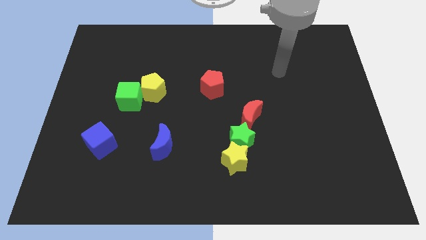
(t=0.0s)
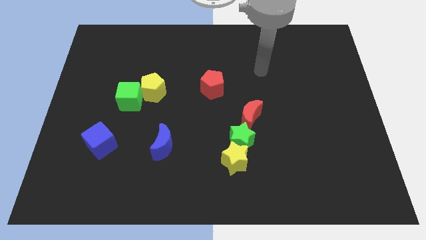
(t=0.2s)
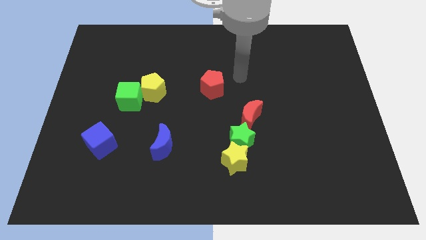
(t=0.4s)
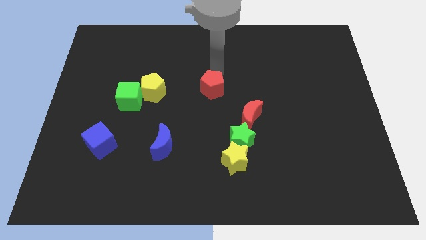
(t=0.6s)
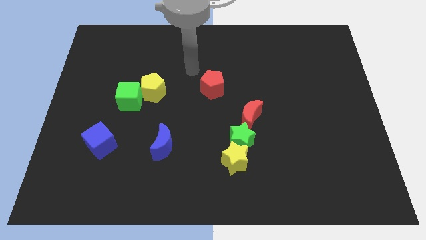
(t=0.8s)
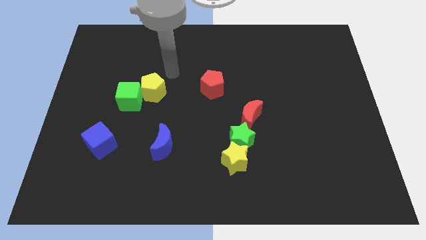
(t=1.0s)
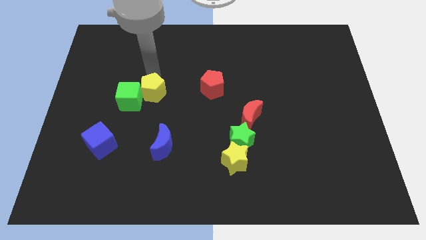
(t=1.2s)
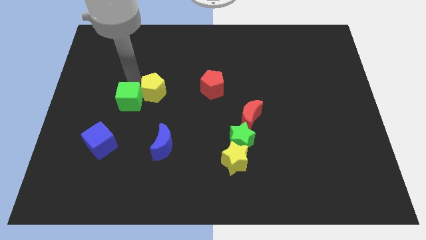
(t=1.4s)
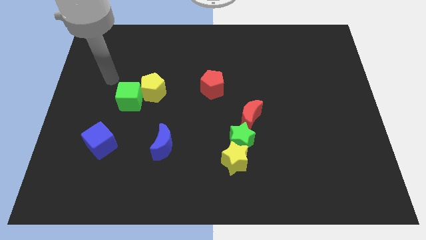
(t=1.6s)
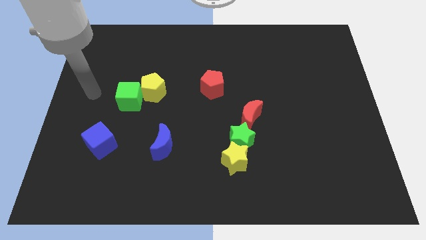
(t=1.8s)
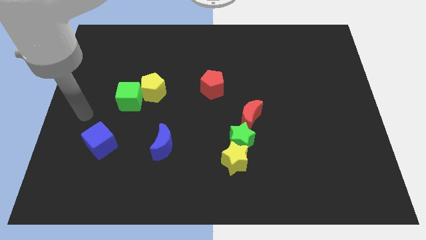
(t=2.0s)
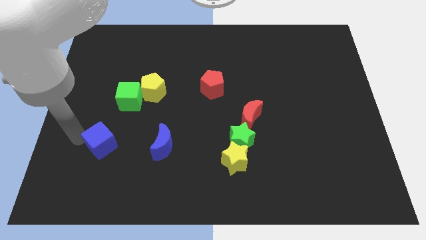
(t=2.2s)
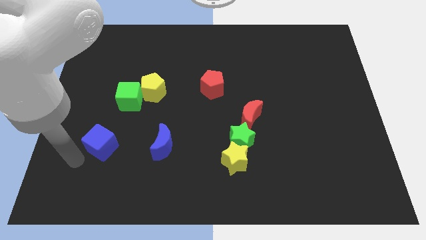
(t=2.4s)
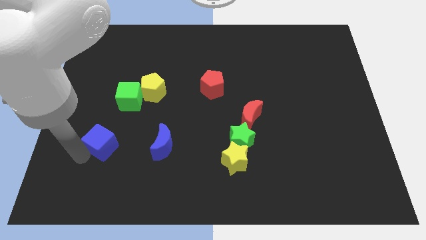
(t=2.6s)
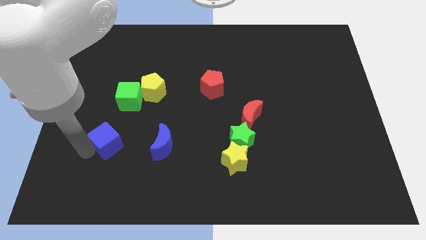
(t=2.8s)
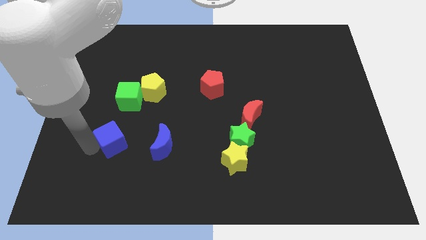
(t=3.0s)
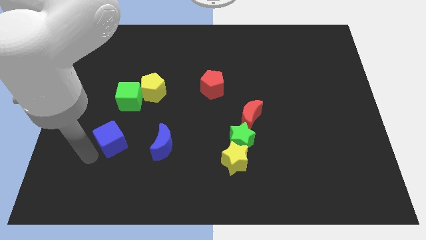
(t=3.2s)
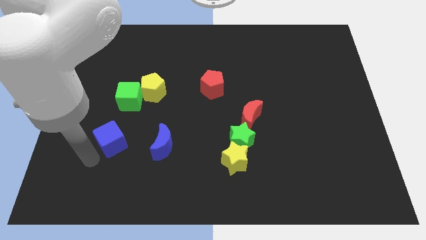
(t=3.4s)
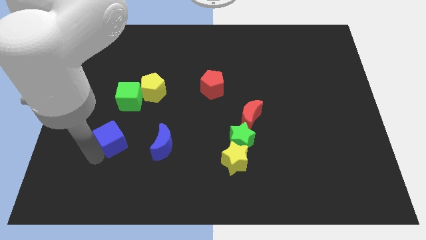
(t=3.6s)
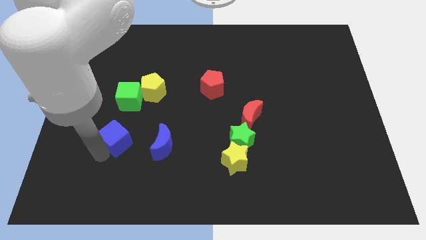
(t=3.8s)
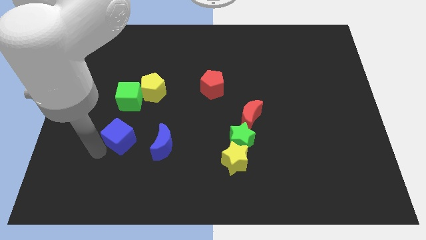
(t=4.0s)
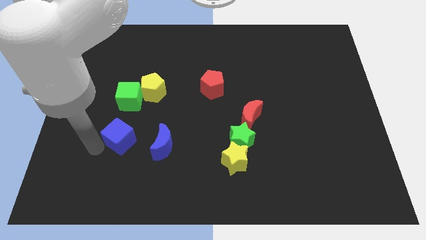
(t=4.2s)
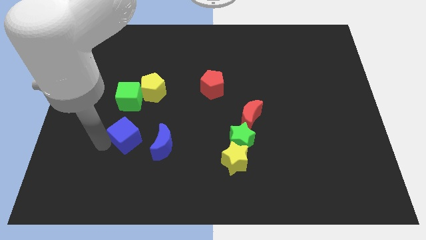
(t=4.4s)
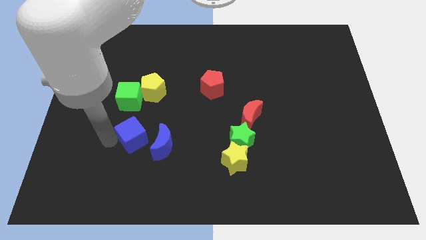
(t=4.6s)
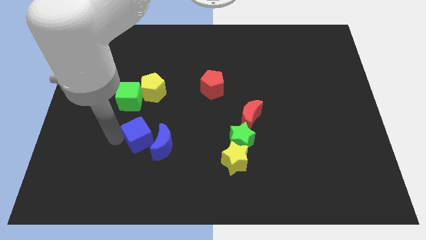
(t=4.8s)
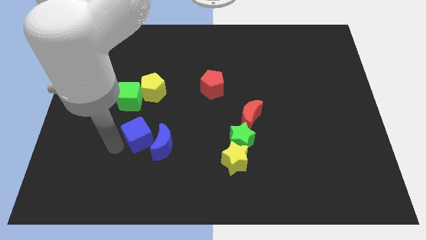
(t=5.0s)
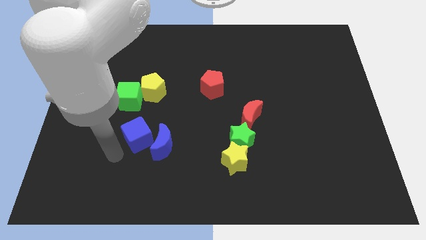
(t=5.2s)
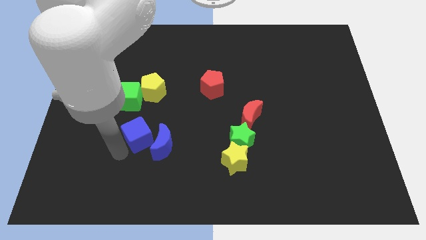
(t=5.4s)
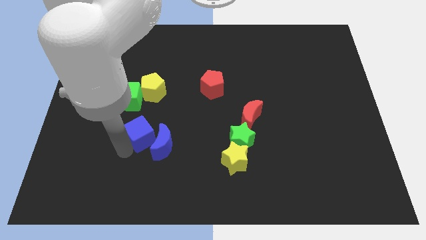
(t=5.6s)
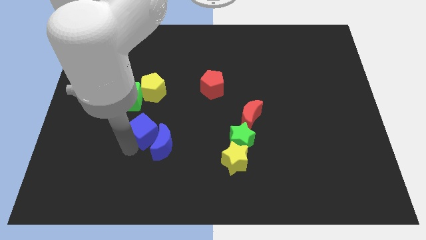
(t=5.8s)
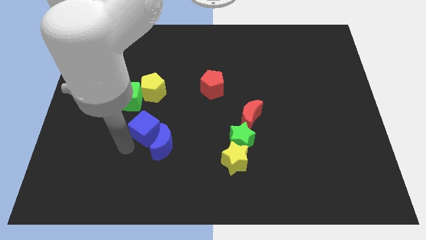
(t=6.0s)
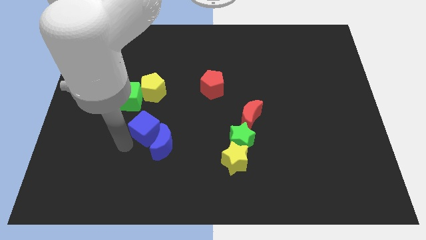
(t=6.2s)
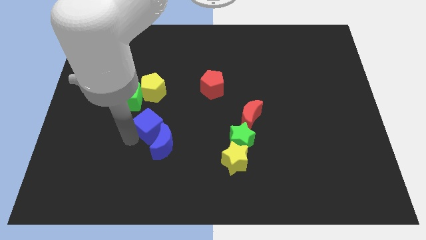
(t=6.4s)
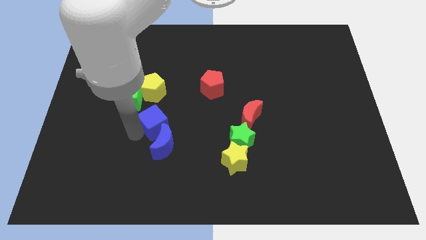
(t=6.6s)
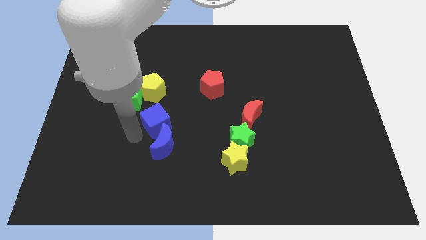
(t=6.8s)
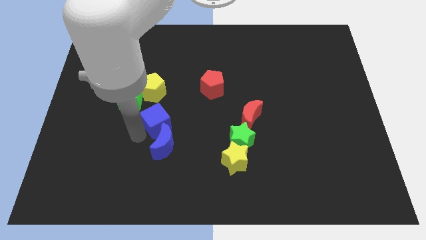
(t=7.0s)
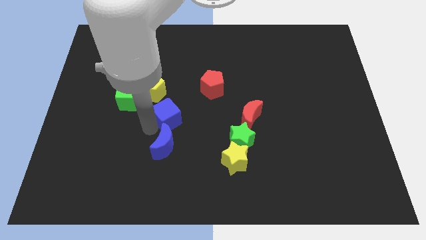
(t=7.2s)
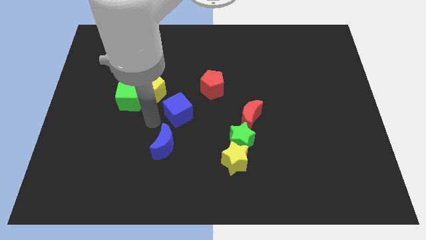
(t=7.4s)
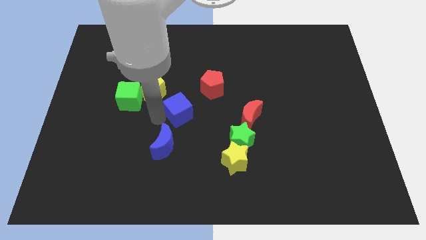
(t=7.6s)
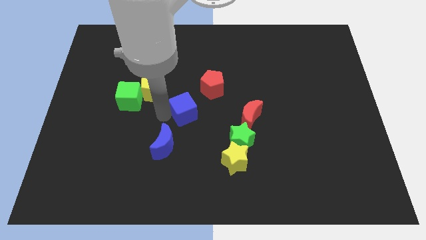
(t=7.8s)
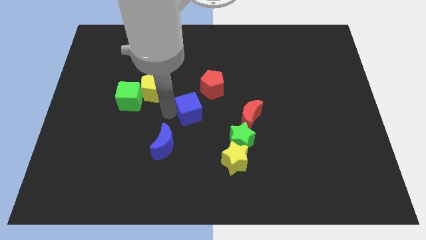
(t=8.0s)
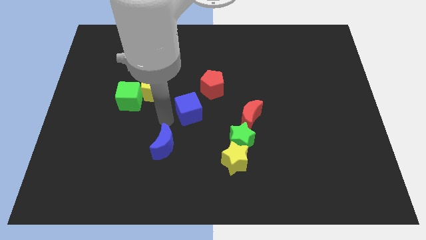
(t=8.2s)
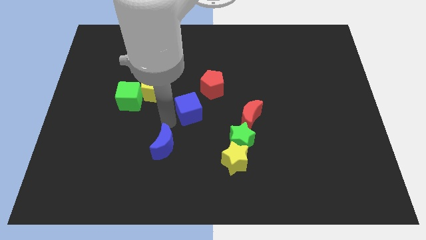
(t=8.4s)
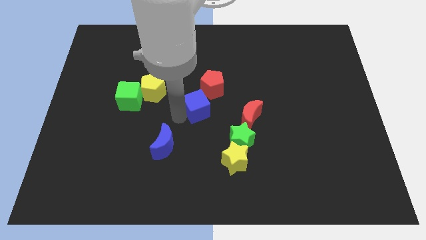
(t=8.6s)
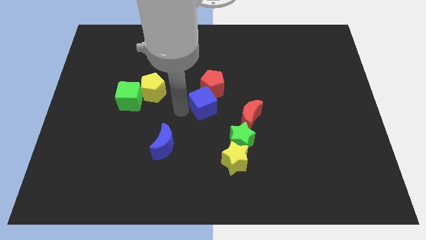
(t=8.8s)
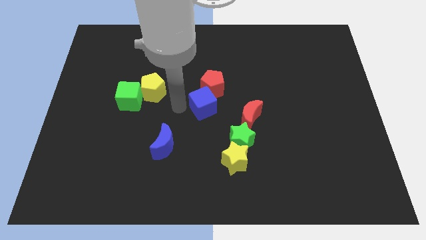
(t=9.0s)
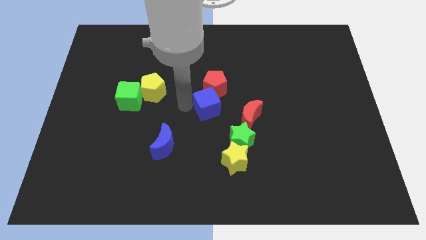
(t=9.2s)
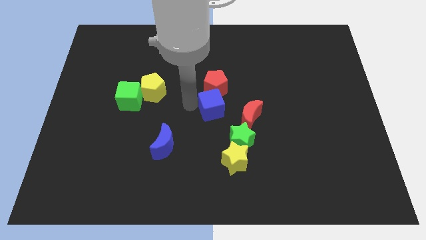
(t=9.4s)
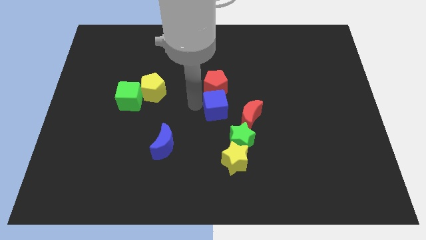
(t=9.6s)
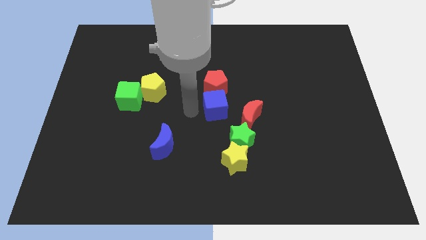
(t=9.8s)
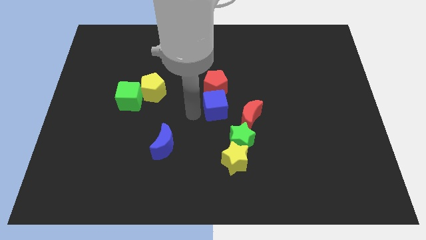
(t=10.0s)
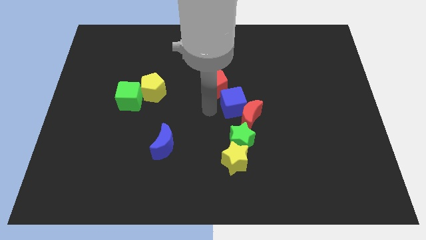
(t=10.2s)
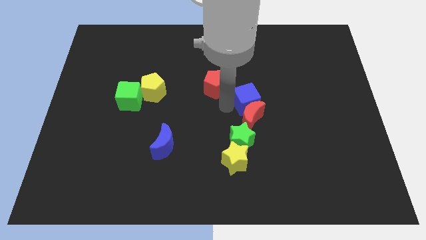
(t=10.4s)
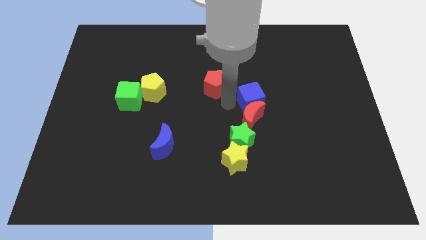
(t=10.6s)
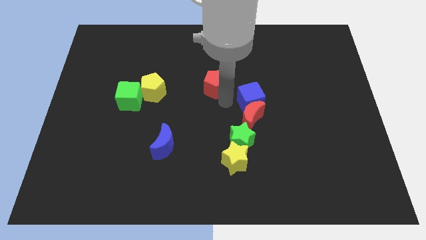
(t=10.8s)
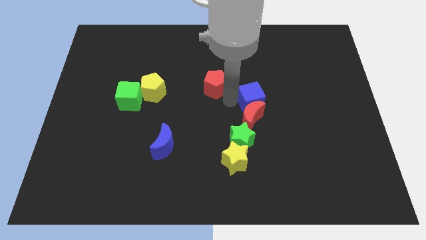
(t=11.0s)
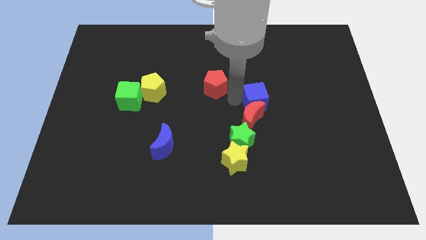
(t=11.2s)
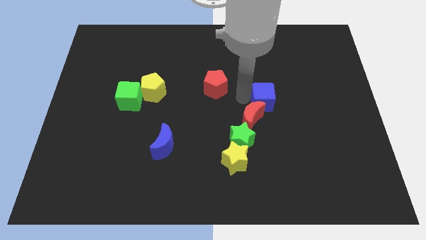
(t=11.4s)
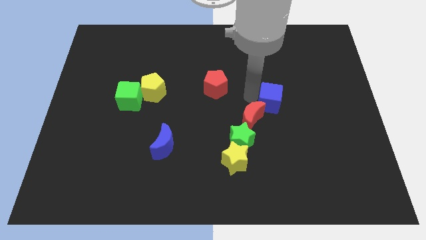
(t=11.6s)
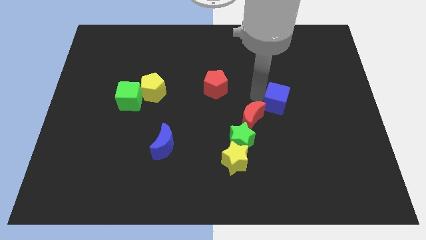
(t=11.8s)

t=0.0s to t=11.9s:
slide the blue cube right of the red moon
